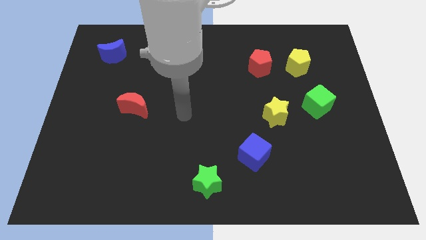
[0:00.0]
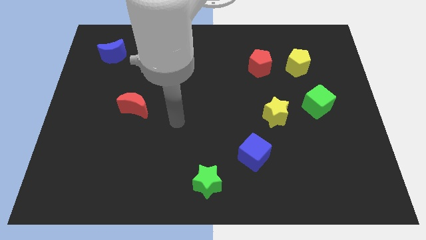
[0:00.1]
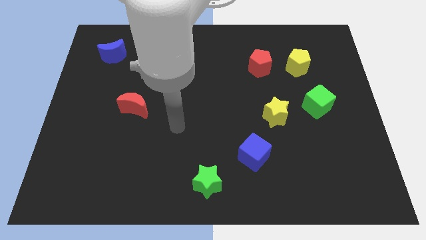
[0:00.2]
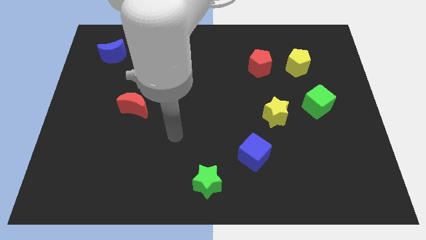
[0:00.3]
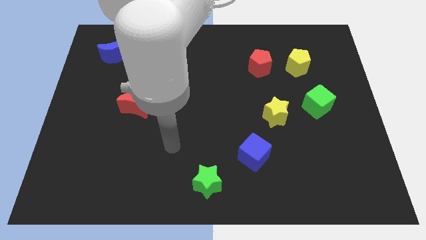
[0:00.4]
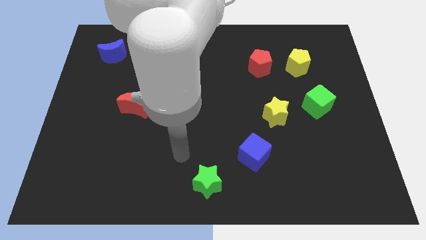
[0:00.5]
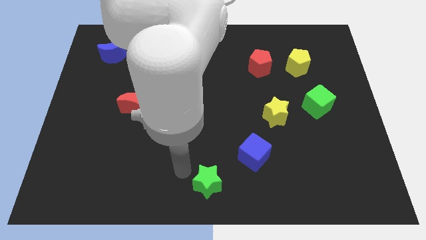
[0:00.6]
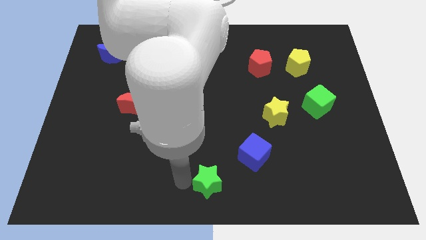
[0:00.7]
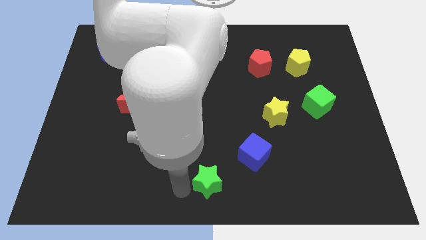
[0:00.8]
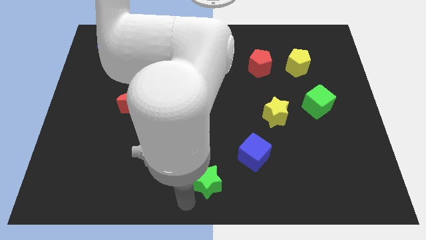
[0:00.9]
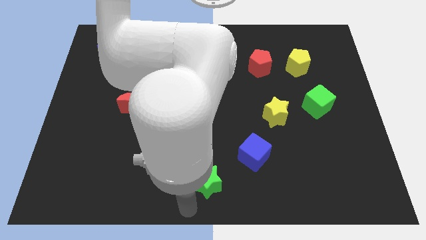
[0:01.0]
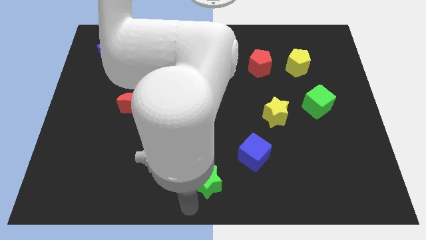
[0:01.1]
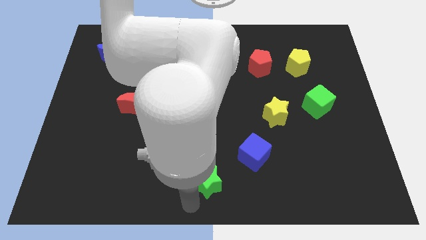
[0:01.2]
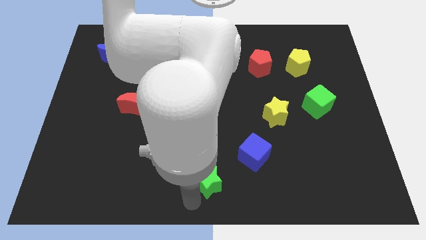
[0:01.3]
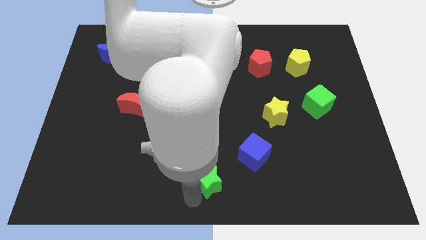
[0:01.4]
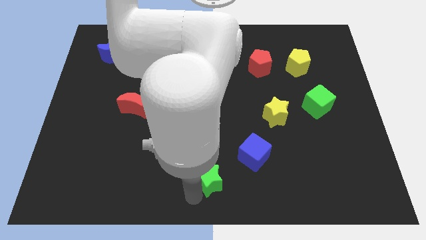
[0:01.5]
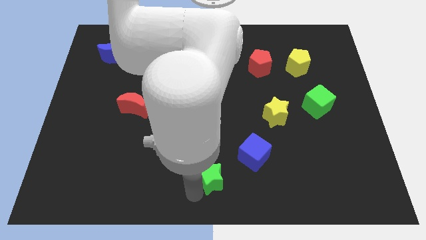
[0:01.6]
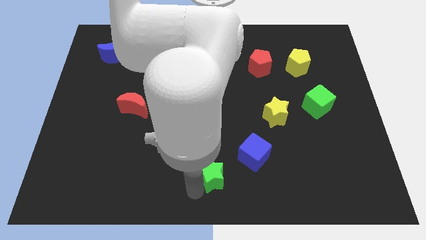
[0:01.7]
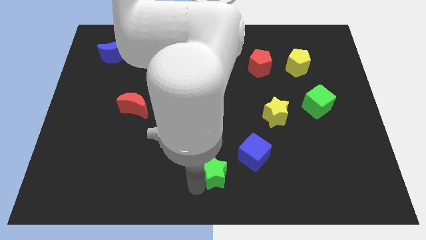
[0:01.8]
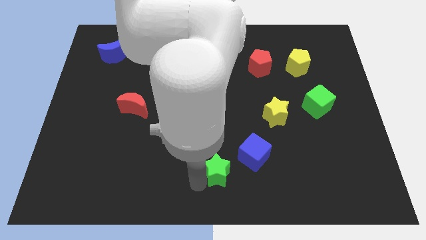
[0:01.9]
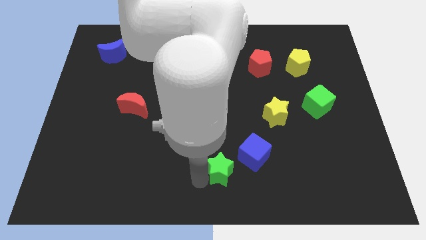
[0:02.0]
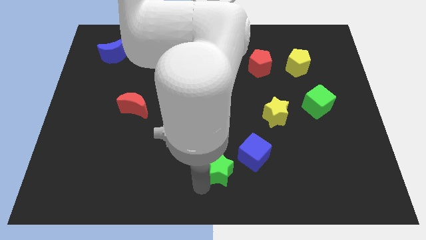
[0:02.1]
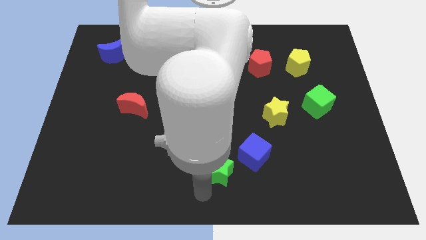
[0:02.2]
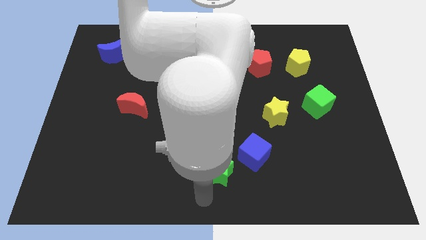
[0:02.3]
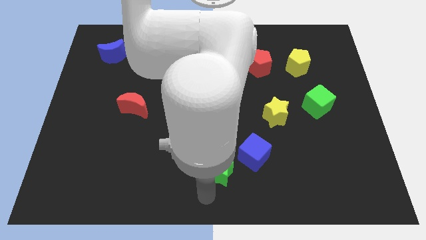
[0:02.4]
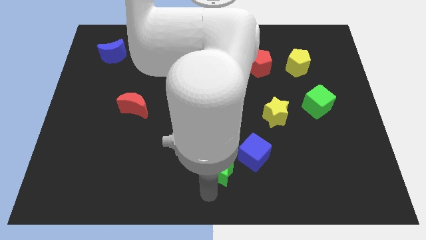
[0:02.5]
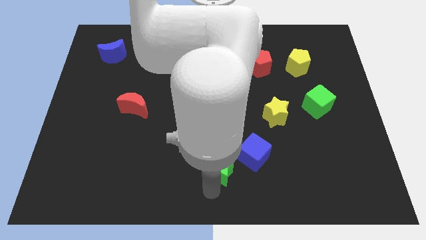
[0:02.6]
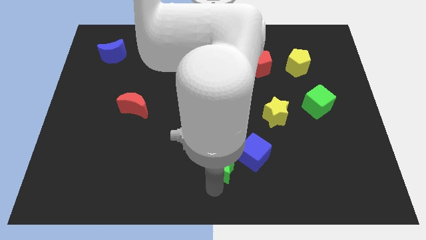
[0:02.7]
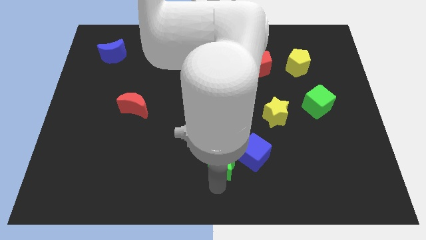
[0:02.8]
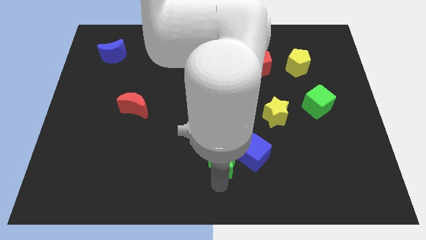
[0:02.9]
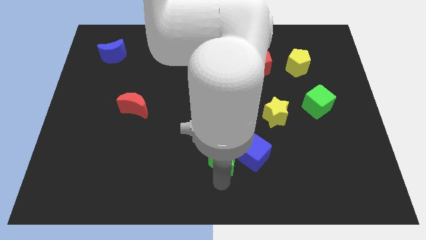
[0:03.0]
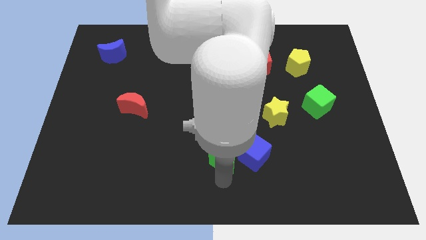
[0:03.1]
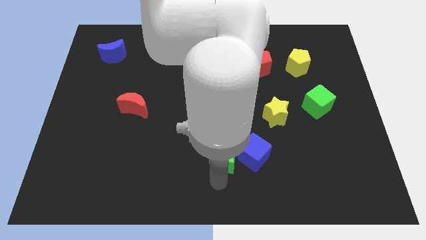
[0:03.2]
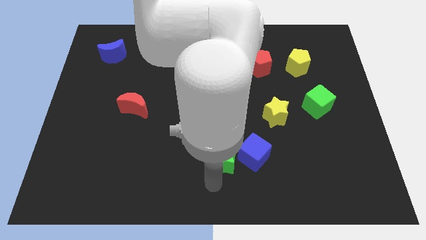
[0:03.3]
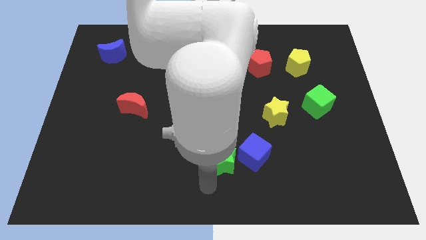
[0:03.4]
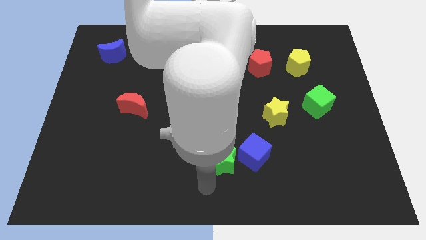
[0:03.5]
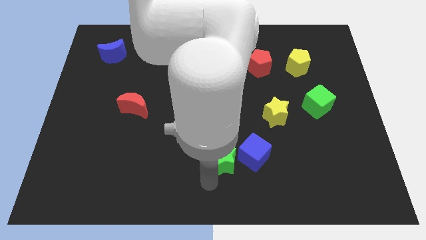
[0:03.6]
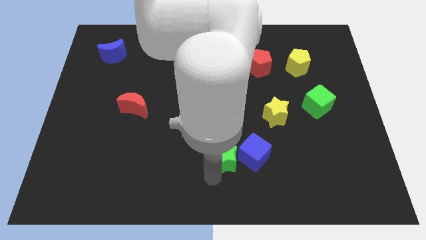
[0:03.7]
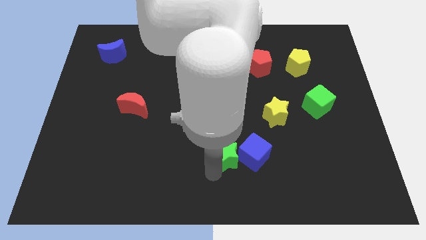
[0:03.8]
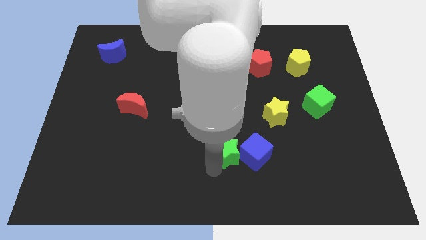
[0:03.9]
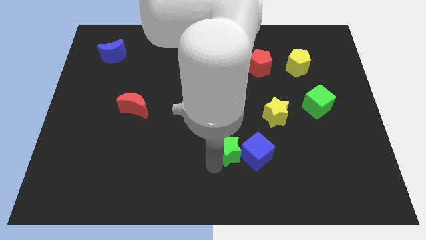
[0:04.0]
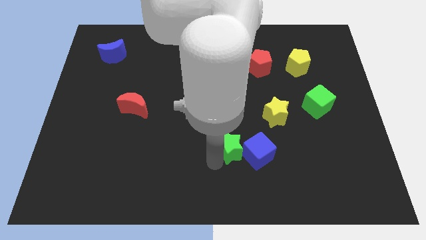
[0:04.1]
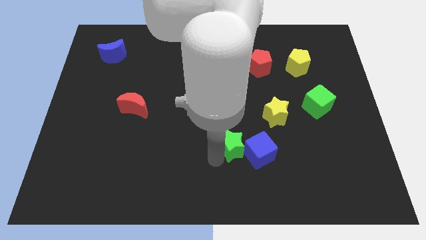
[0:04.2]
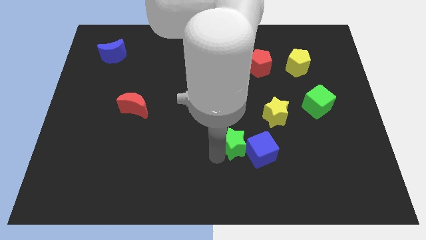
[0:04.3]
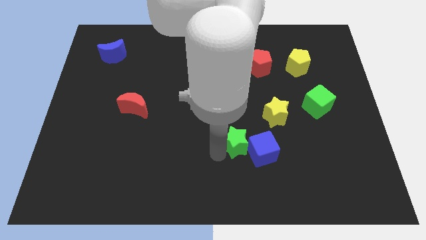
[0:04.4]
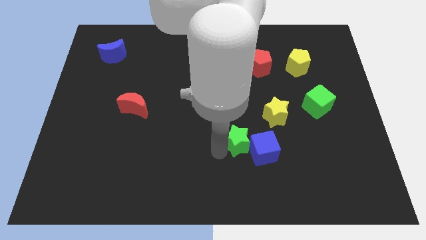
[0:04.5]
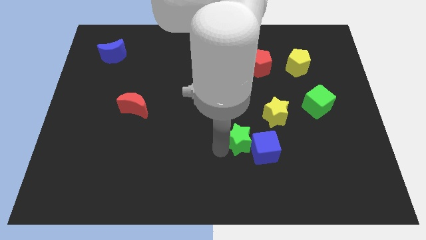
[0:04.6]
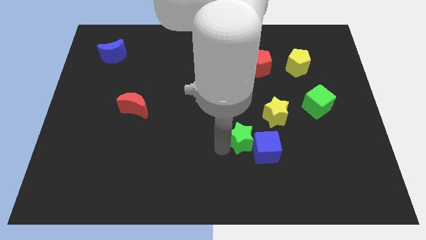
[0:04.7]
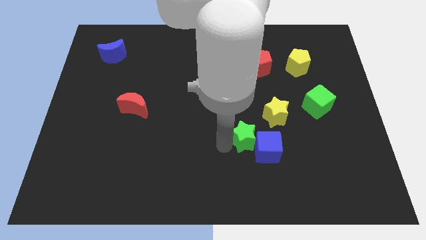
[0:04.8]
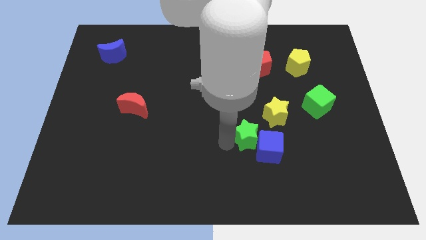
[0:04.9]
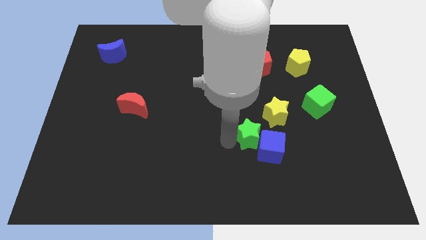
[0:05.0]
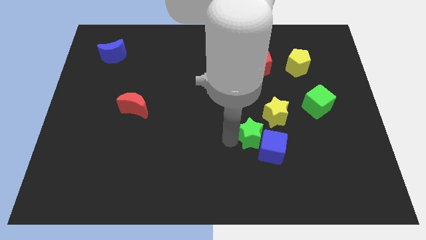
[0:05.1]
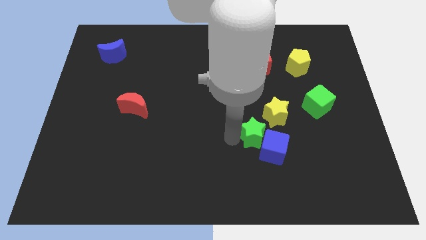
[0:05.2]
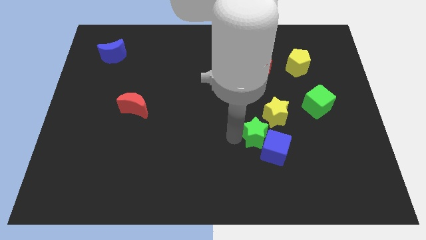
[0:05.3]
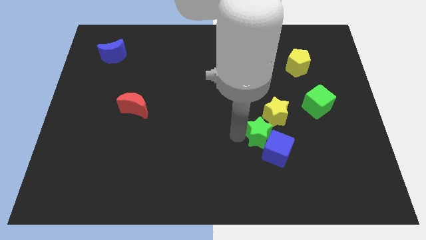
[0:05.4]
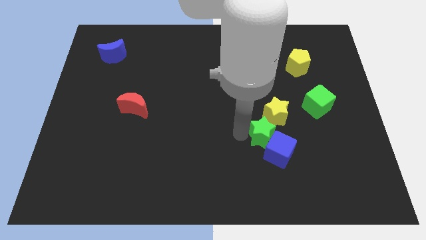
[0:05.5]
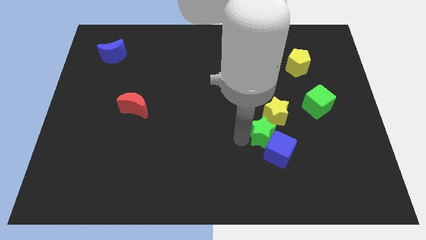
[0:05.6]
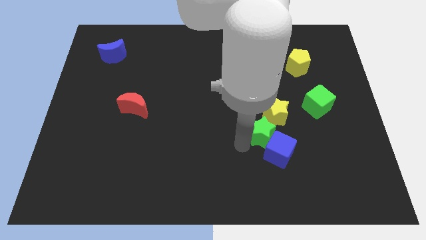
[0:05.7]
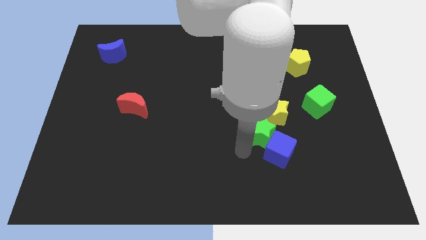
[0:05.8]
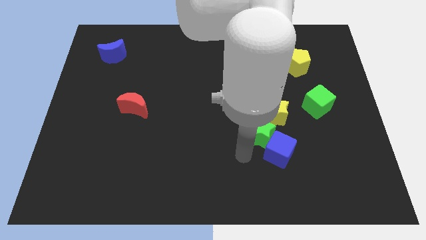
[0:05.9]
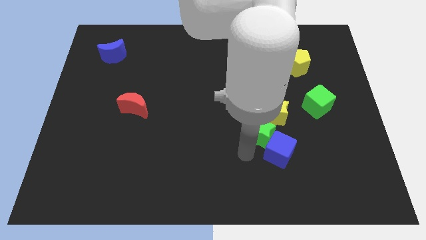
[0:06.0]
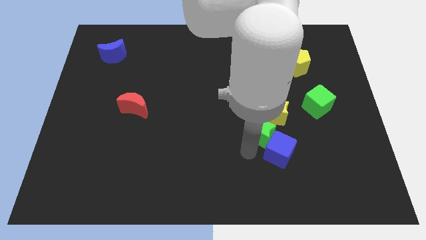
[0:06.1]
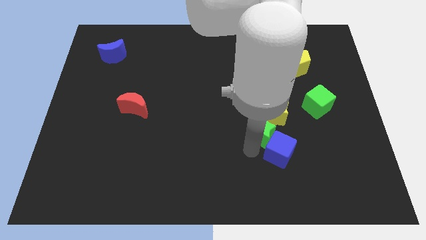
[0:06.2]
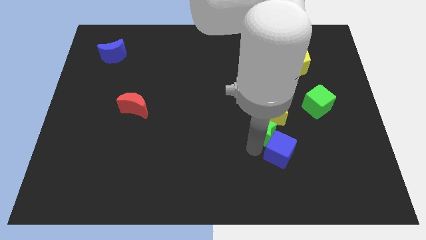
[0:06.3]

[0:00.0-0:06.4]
push the green star towards the yellow star
